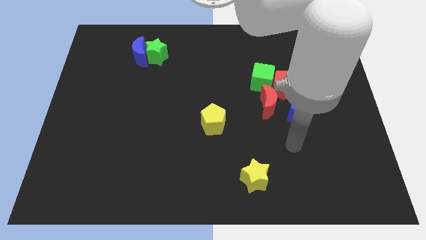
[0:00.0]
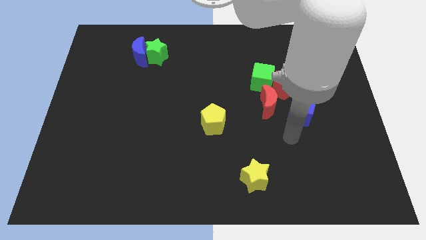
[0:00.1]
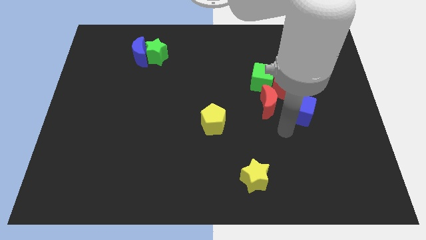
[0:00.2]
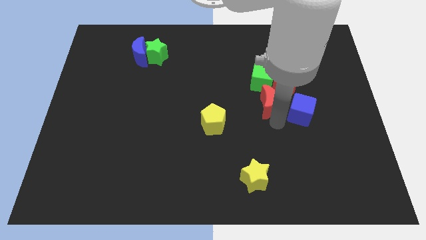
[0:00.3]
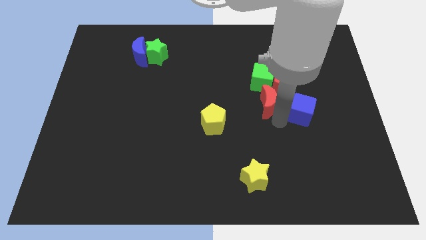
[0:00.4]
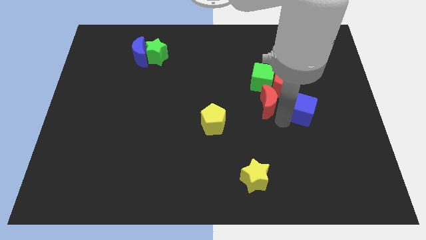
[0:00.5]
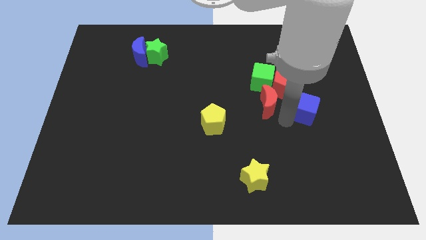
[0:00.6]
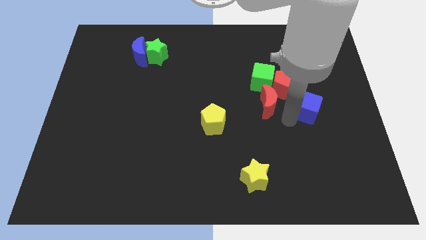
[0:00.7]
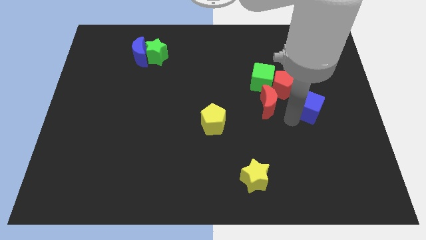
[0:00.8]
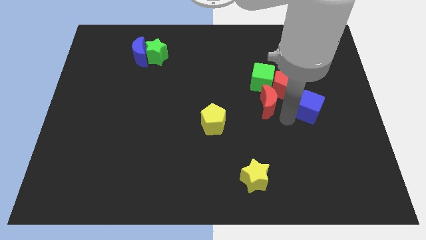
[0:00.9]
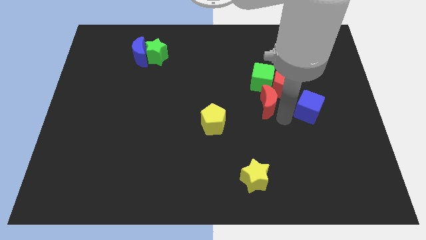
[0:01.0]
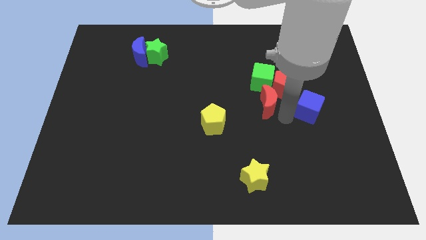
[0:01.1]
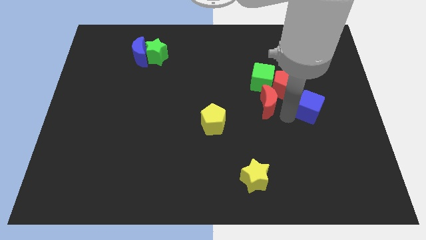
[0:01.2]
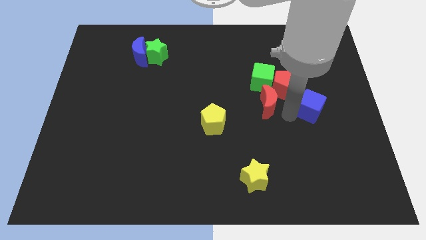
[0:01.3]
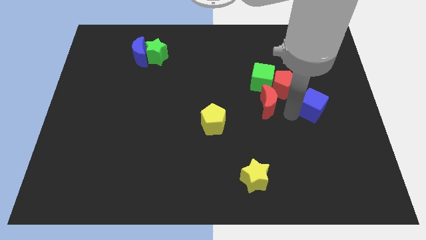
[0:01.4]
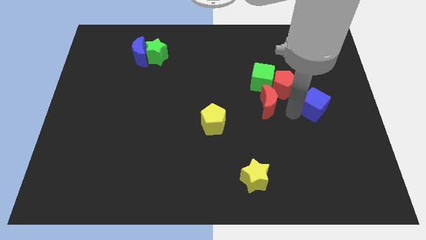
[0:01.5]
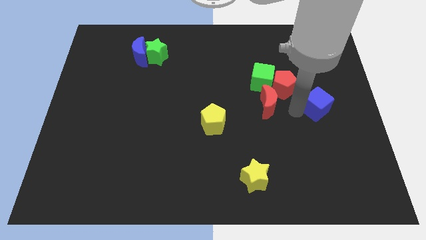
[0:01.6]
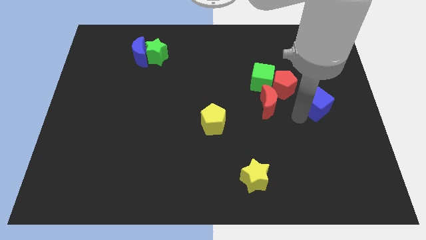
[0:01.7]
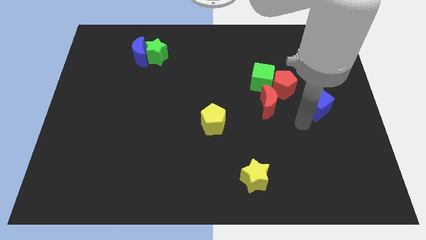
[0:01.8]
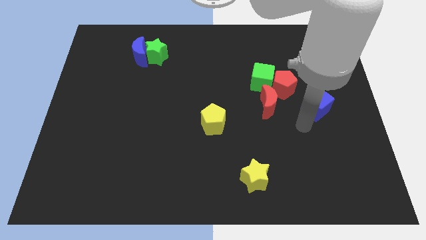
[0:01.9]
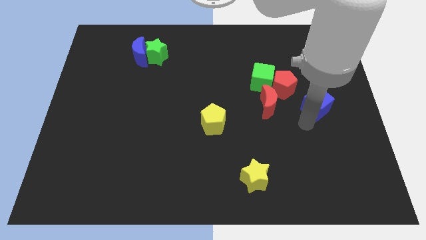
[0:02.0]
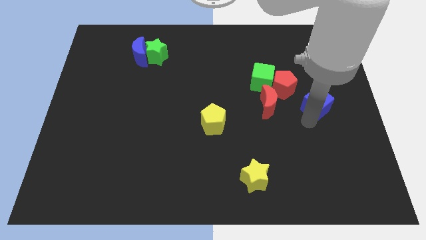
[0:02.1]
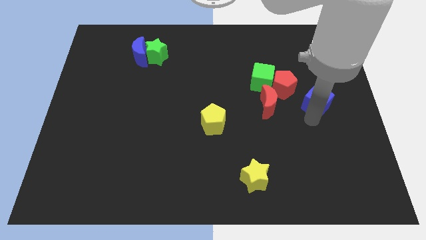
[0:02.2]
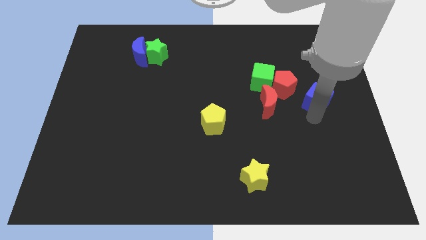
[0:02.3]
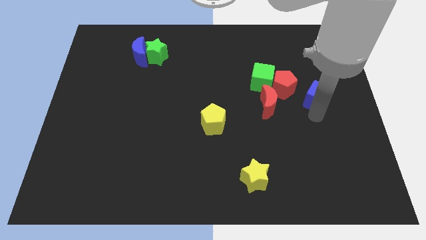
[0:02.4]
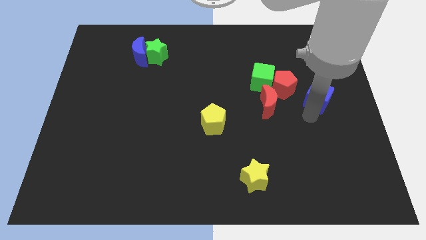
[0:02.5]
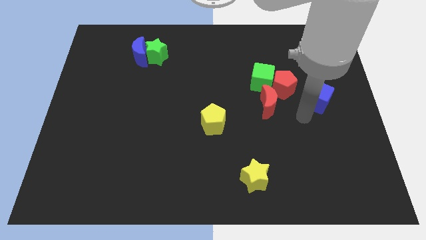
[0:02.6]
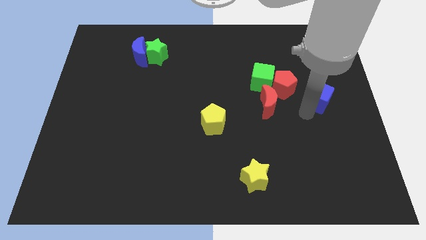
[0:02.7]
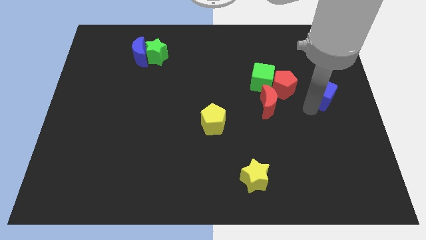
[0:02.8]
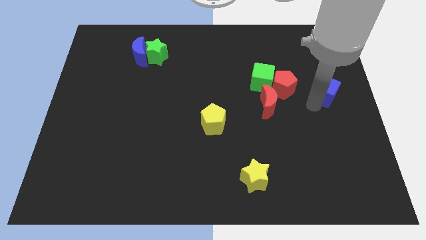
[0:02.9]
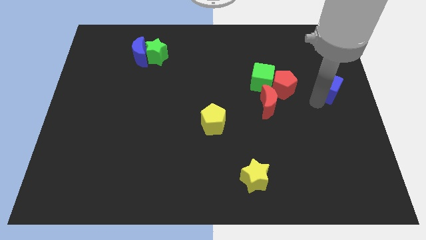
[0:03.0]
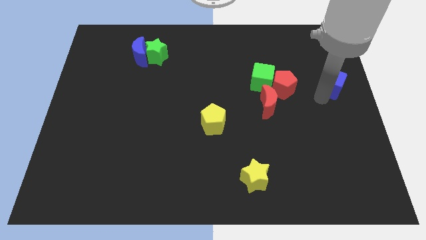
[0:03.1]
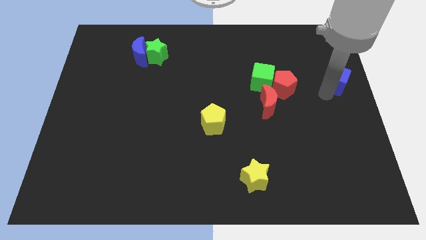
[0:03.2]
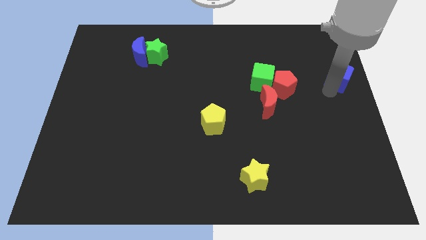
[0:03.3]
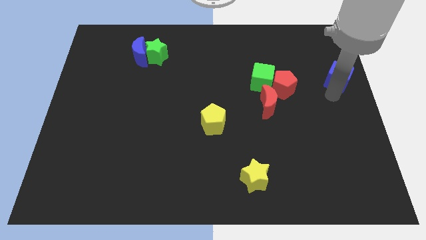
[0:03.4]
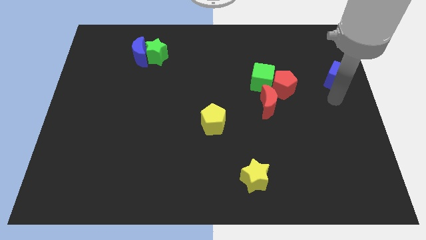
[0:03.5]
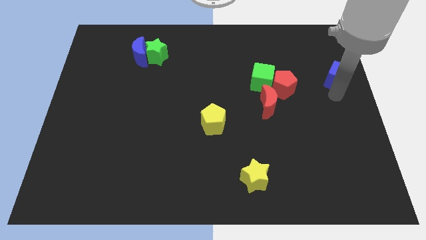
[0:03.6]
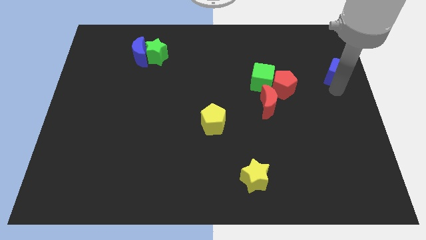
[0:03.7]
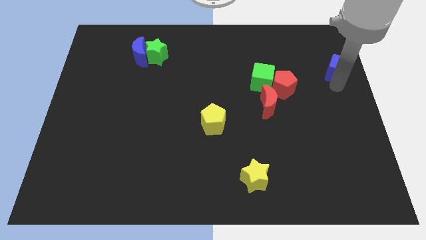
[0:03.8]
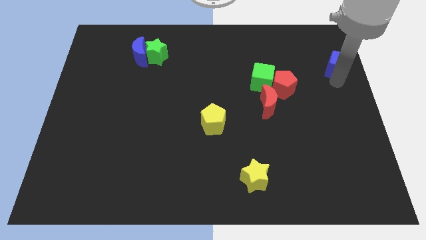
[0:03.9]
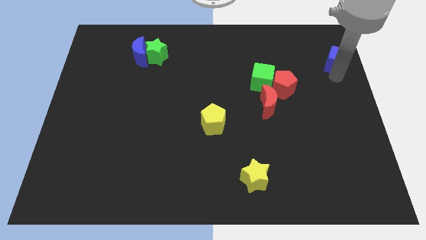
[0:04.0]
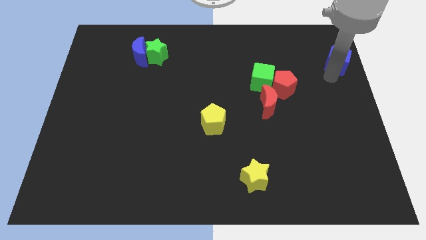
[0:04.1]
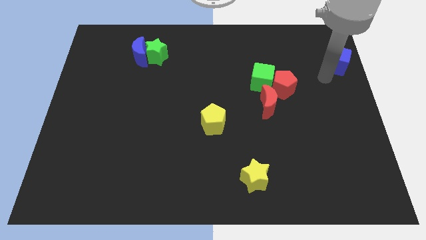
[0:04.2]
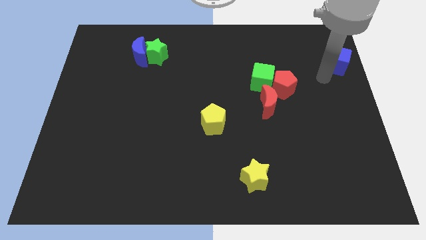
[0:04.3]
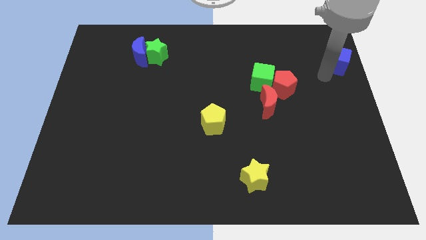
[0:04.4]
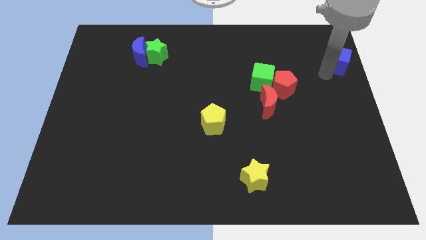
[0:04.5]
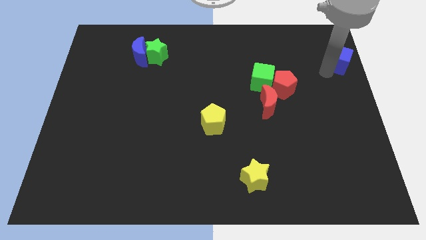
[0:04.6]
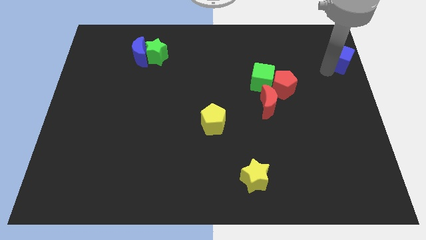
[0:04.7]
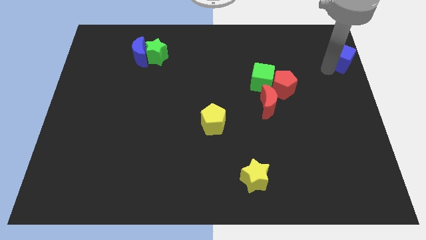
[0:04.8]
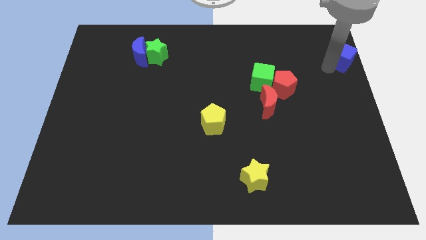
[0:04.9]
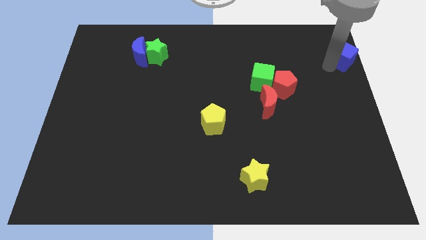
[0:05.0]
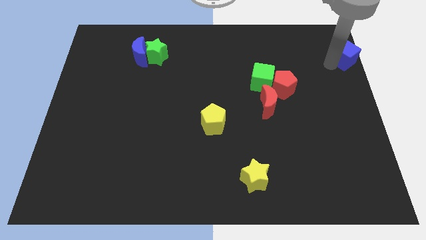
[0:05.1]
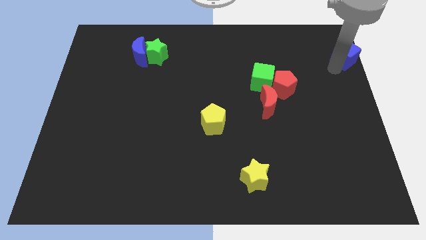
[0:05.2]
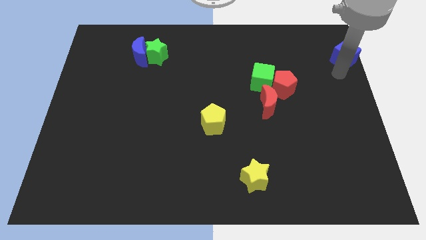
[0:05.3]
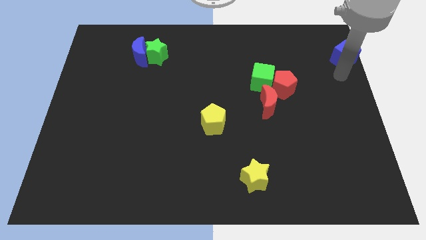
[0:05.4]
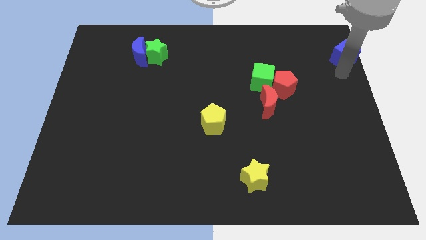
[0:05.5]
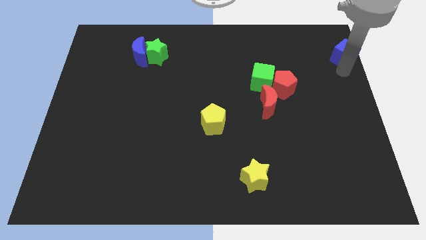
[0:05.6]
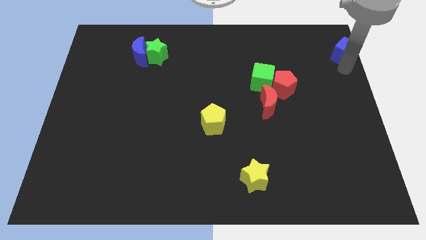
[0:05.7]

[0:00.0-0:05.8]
push the blue cube to the top right
